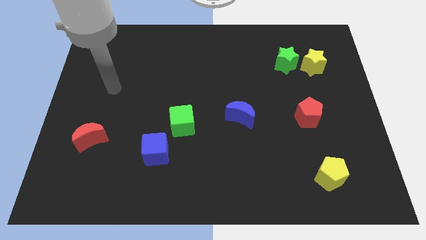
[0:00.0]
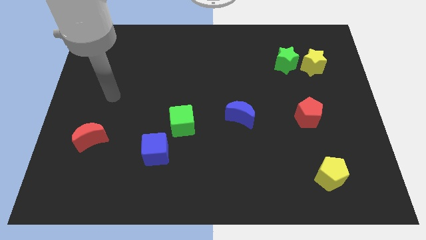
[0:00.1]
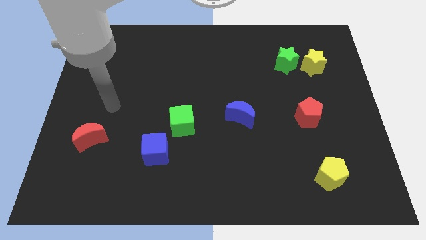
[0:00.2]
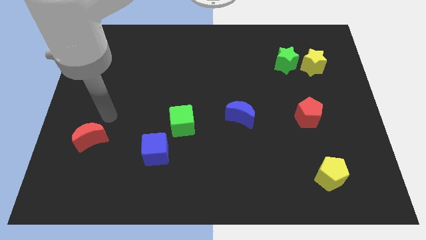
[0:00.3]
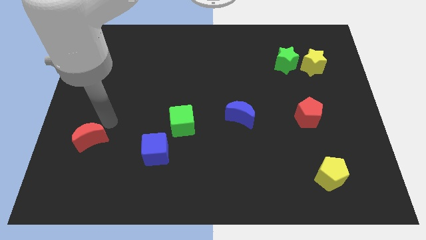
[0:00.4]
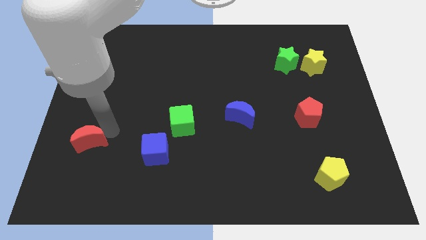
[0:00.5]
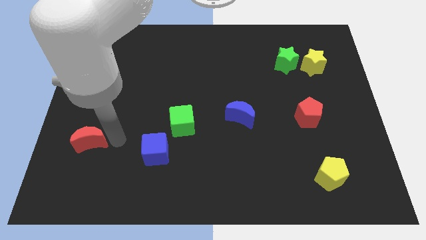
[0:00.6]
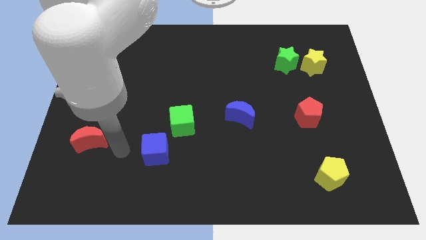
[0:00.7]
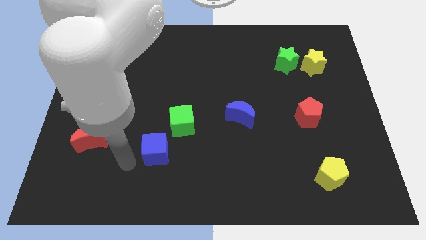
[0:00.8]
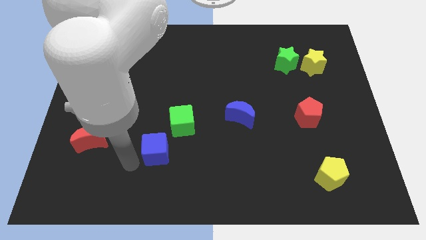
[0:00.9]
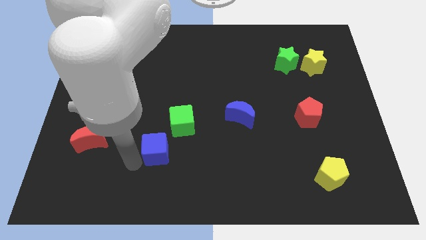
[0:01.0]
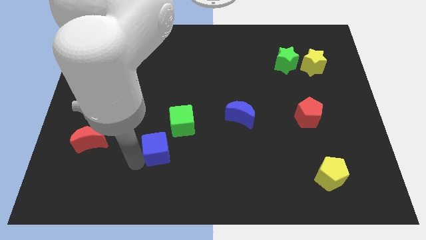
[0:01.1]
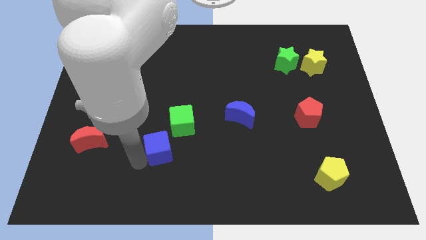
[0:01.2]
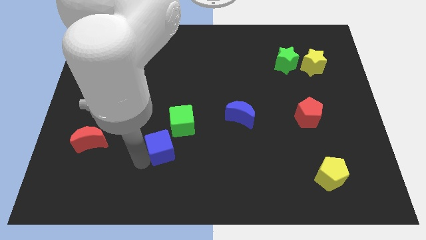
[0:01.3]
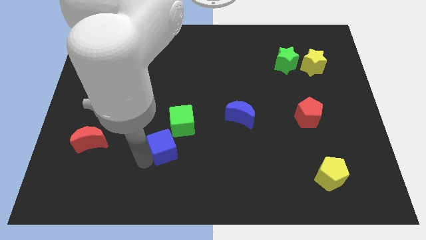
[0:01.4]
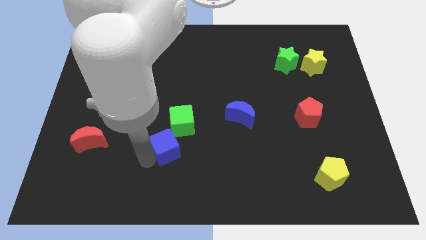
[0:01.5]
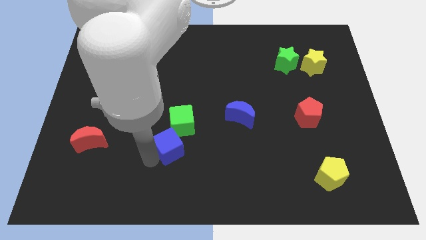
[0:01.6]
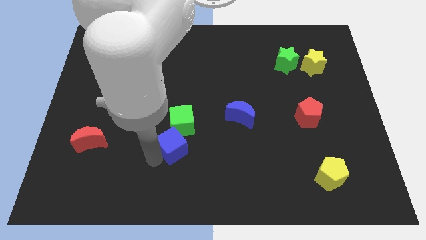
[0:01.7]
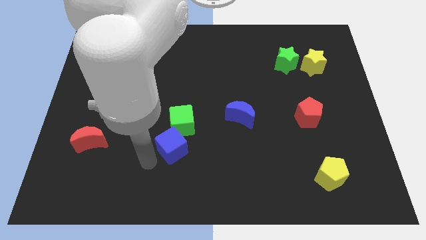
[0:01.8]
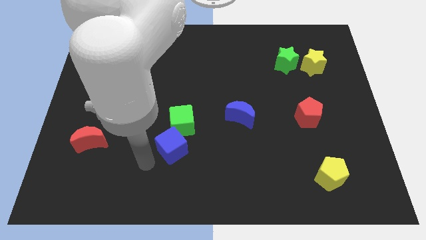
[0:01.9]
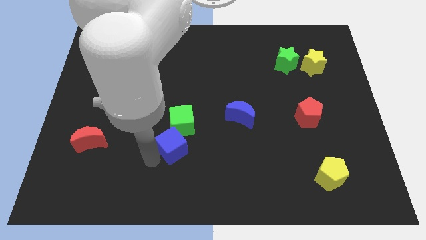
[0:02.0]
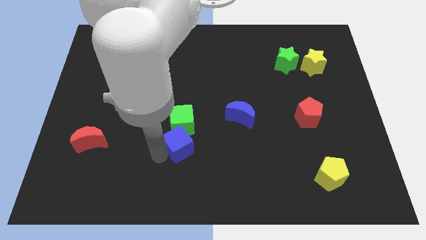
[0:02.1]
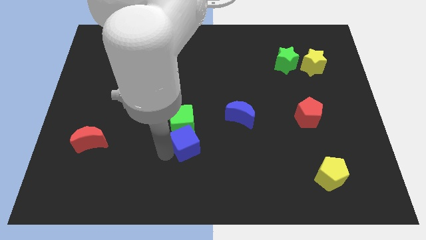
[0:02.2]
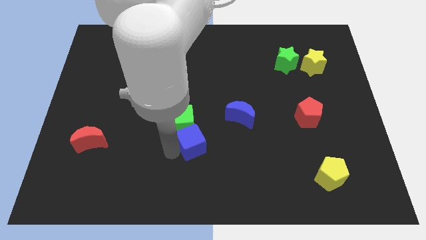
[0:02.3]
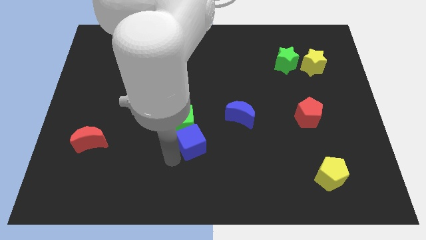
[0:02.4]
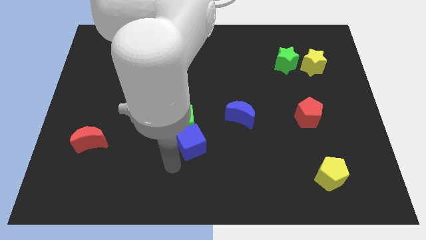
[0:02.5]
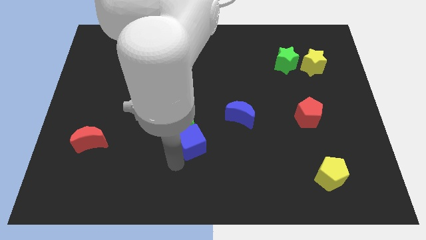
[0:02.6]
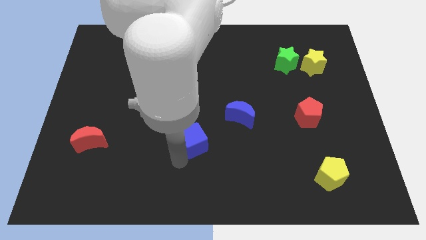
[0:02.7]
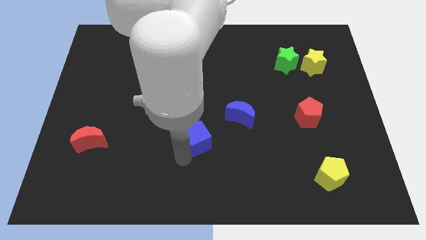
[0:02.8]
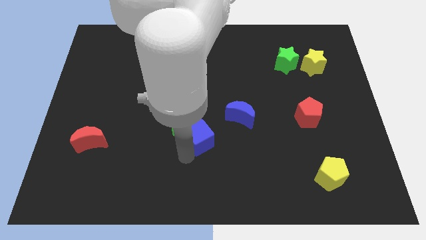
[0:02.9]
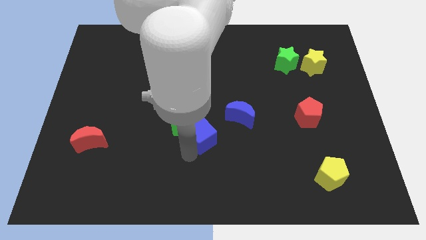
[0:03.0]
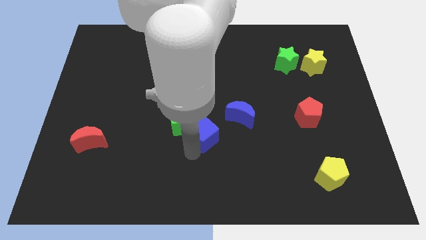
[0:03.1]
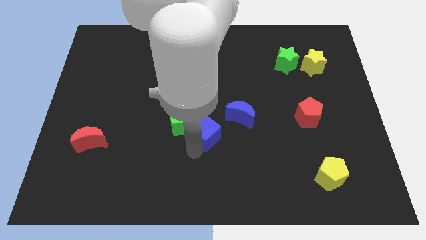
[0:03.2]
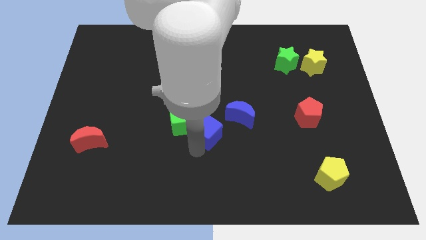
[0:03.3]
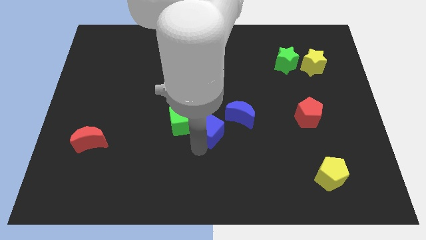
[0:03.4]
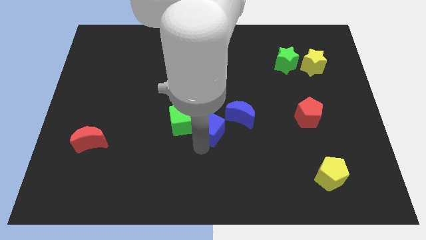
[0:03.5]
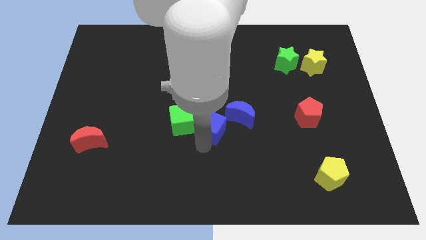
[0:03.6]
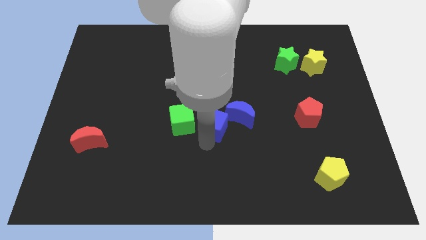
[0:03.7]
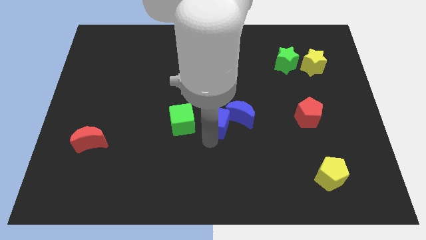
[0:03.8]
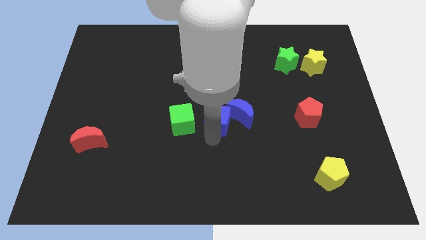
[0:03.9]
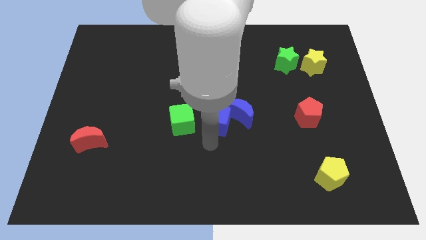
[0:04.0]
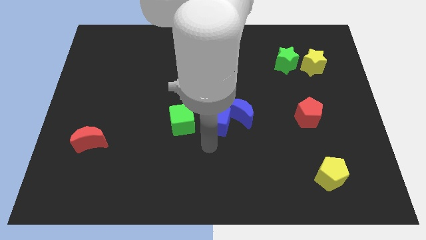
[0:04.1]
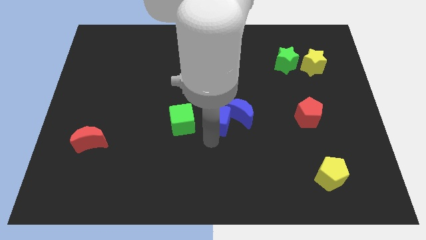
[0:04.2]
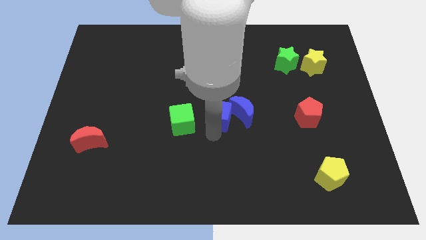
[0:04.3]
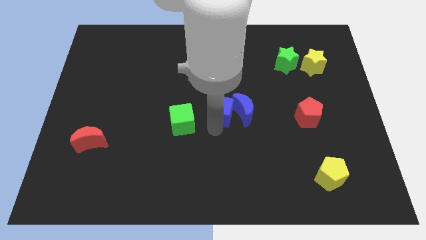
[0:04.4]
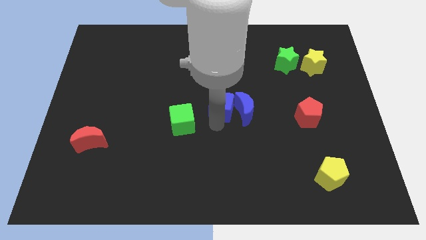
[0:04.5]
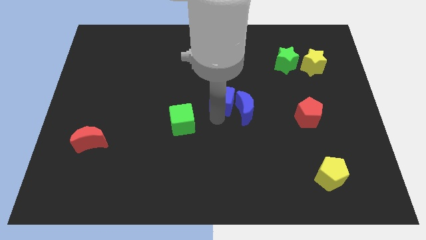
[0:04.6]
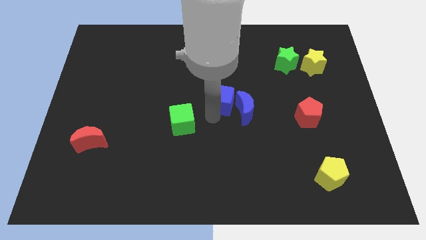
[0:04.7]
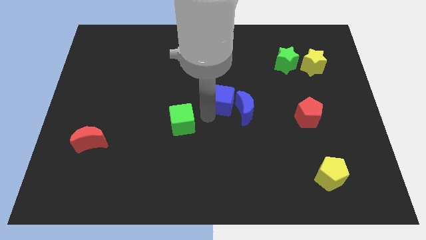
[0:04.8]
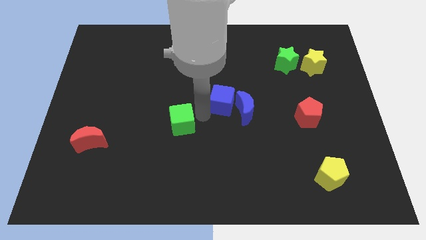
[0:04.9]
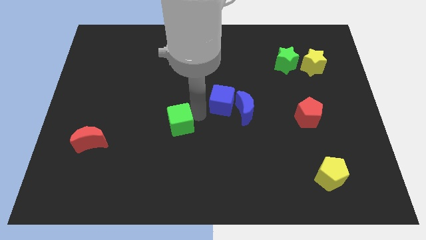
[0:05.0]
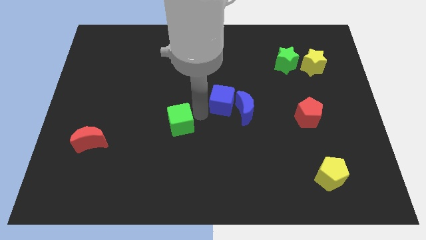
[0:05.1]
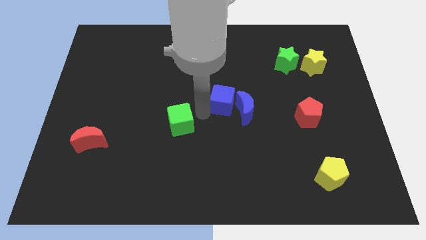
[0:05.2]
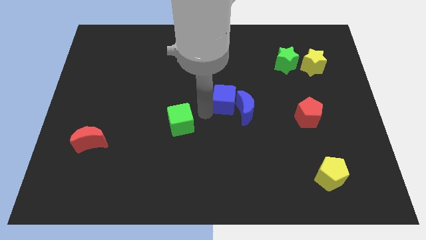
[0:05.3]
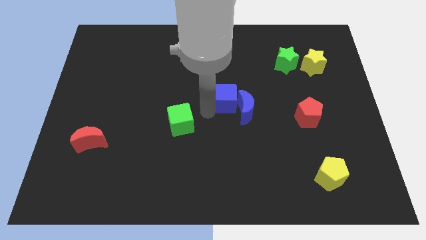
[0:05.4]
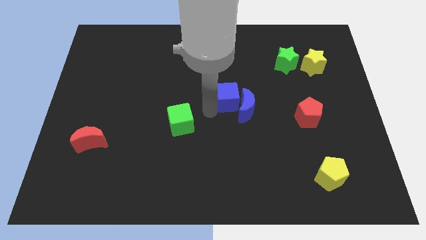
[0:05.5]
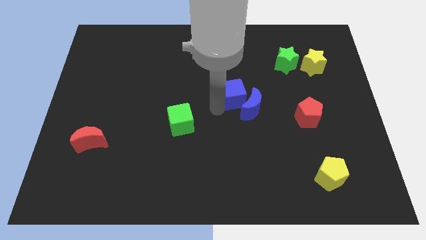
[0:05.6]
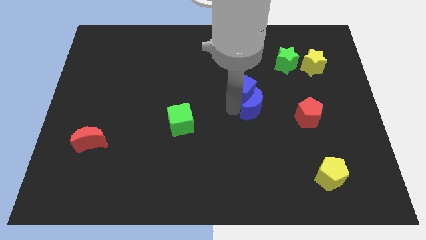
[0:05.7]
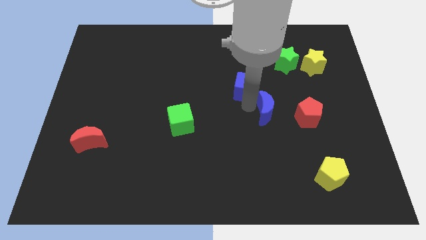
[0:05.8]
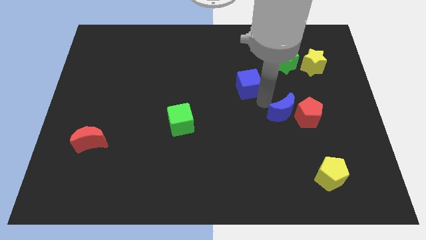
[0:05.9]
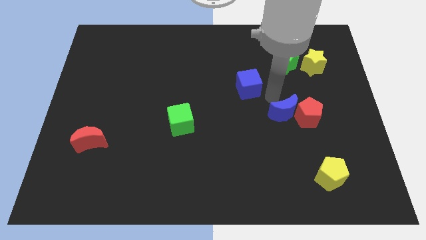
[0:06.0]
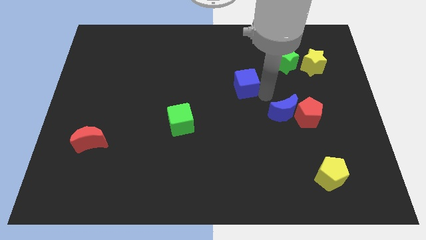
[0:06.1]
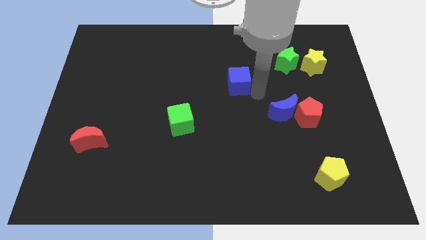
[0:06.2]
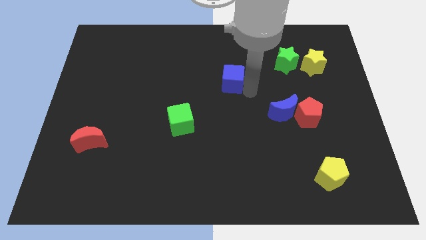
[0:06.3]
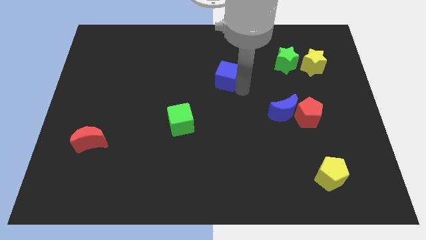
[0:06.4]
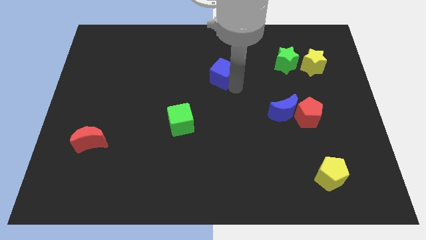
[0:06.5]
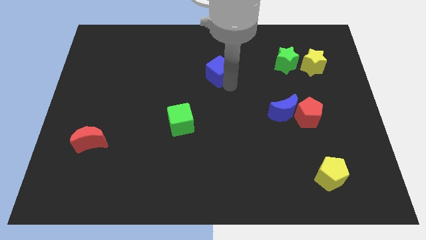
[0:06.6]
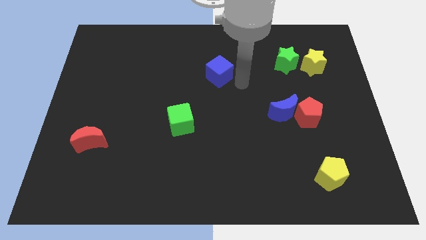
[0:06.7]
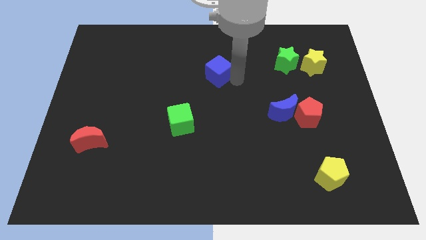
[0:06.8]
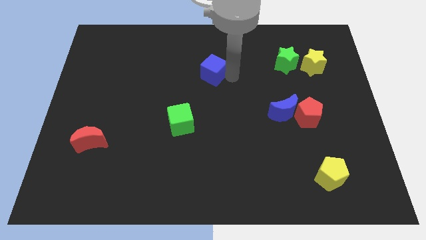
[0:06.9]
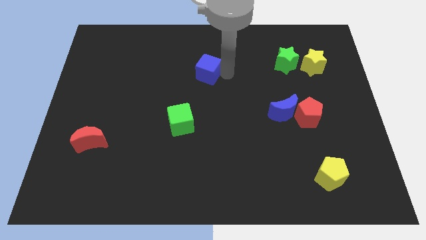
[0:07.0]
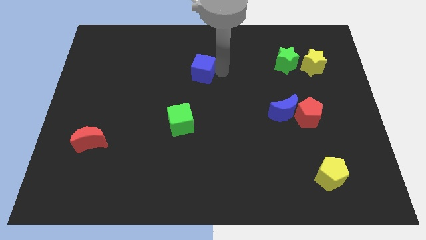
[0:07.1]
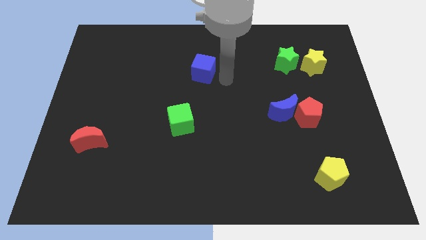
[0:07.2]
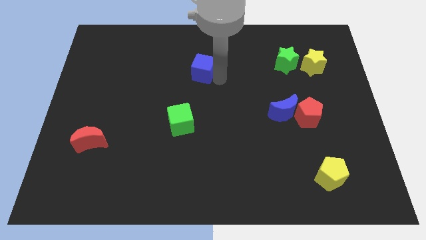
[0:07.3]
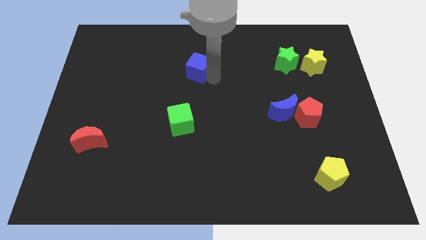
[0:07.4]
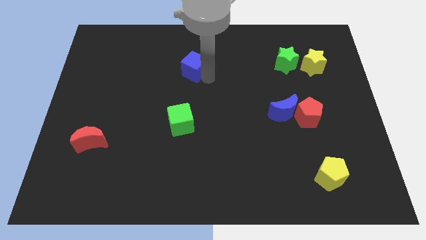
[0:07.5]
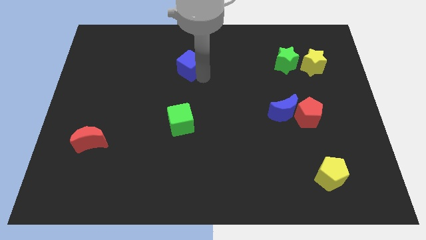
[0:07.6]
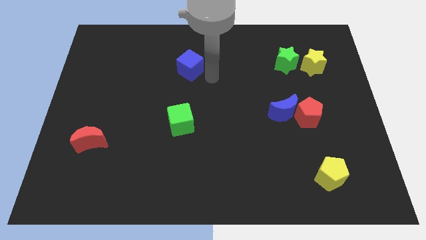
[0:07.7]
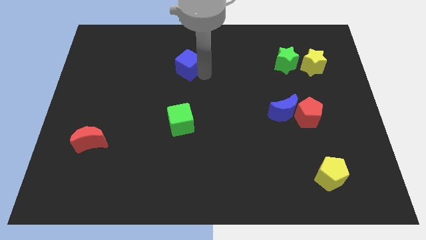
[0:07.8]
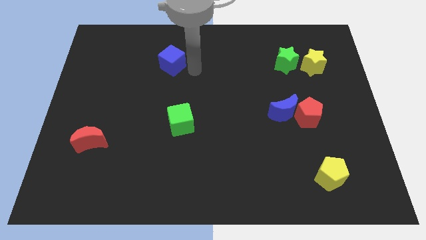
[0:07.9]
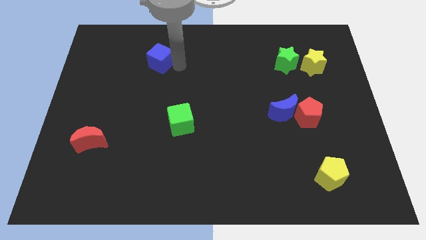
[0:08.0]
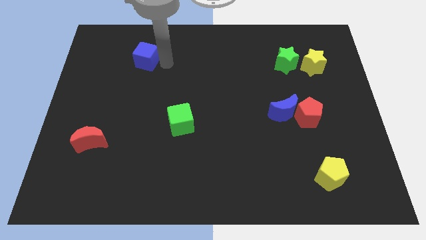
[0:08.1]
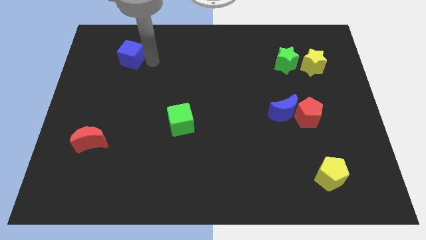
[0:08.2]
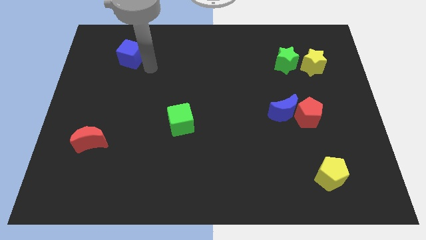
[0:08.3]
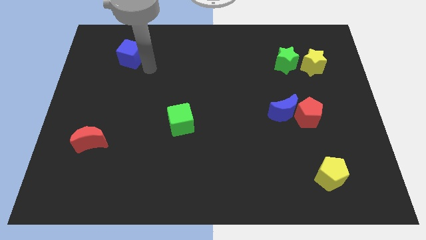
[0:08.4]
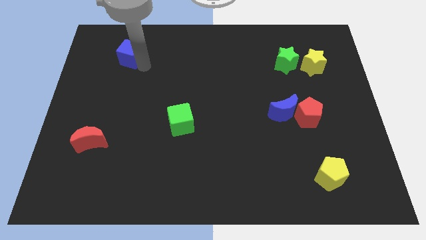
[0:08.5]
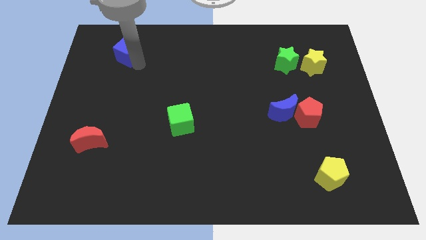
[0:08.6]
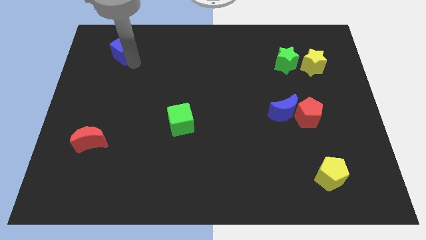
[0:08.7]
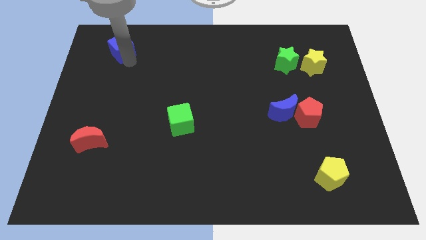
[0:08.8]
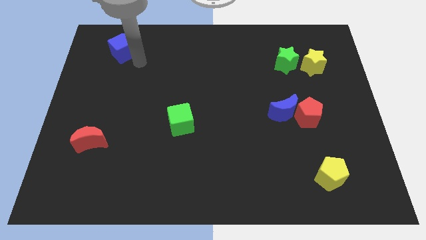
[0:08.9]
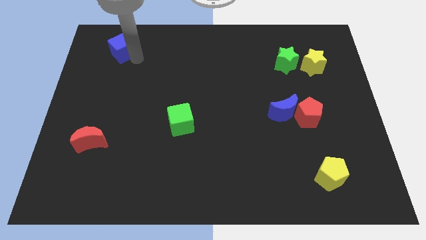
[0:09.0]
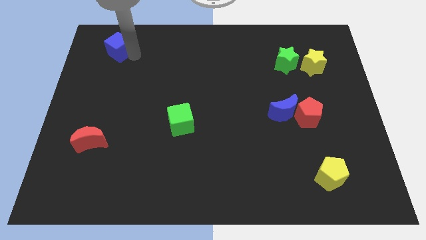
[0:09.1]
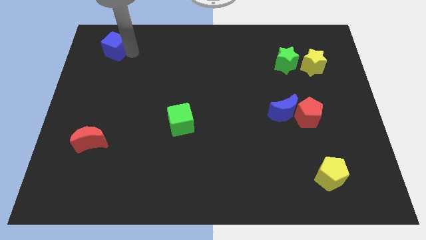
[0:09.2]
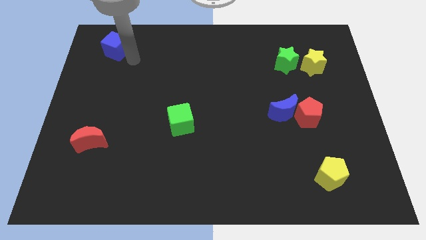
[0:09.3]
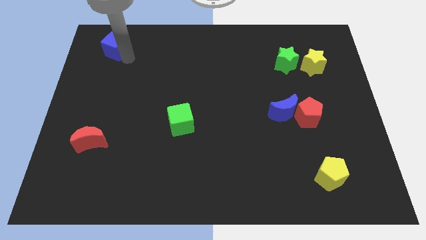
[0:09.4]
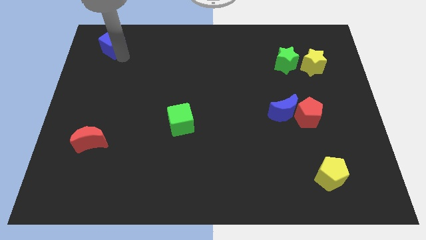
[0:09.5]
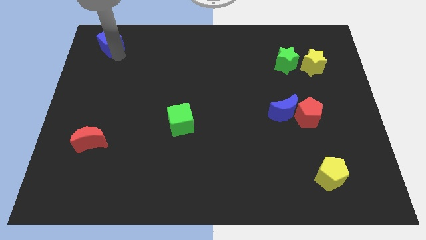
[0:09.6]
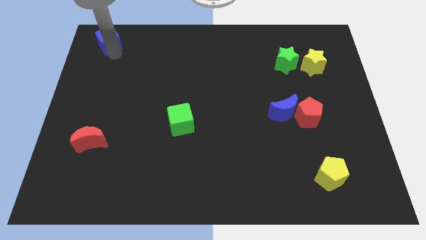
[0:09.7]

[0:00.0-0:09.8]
move the blue cube to the upper left corner
